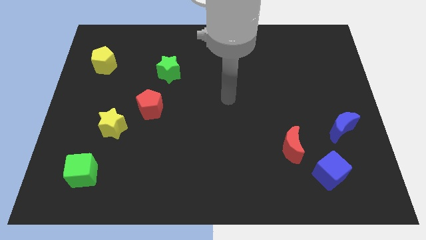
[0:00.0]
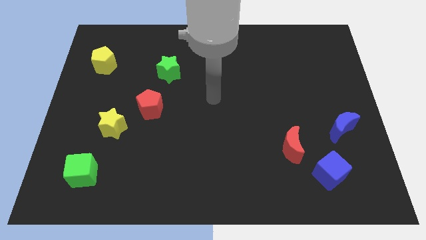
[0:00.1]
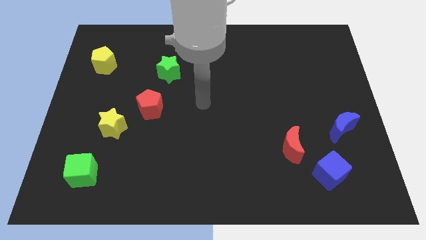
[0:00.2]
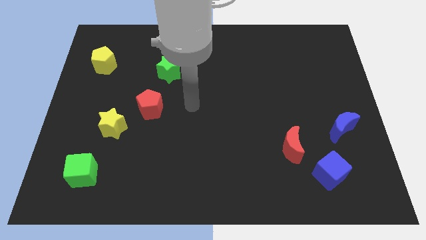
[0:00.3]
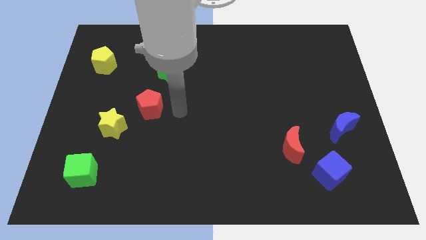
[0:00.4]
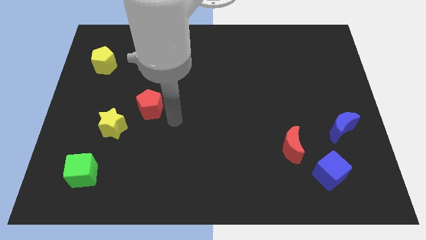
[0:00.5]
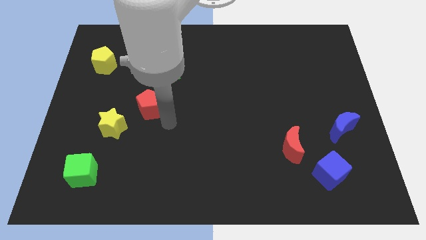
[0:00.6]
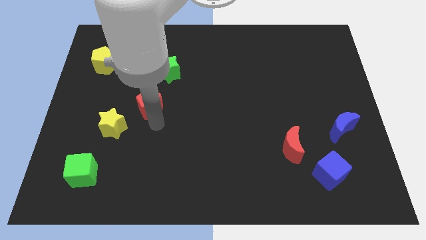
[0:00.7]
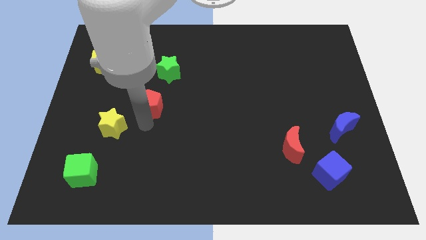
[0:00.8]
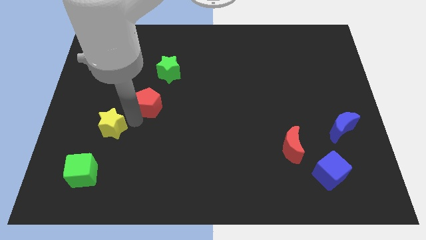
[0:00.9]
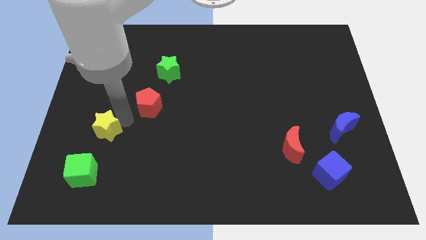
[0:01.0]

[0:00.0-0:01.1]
separate the red pentagon from the yellow star

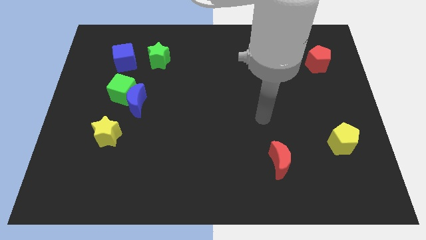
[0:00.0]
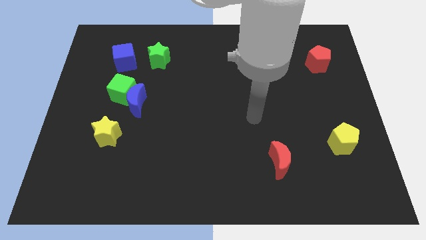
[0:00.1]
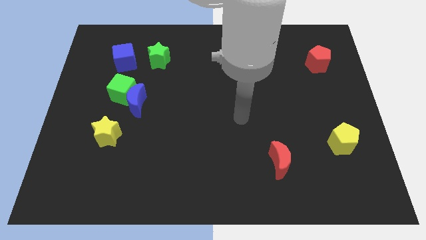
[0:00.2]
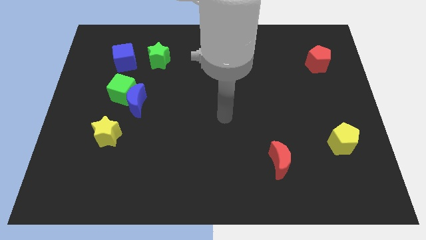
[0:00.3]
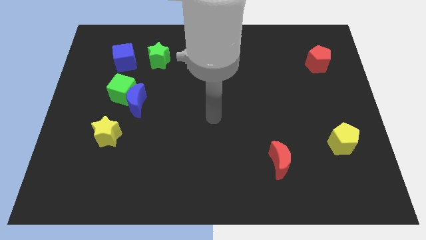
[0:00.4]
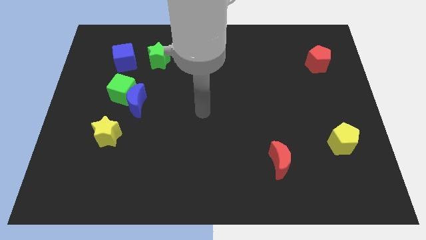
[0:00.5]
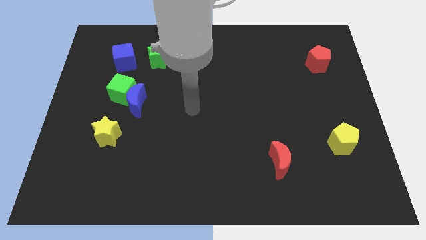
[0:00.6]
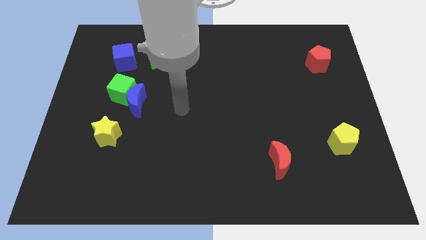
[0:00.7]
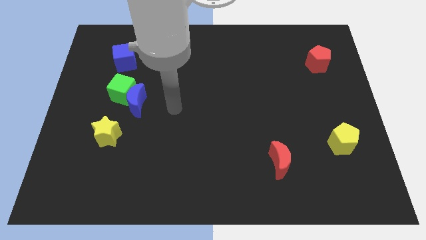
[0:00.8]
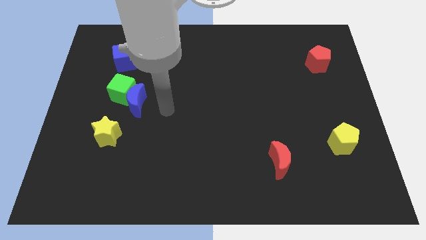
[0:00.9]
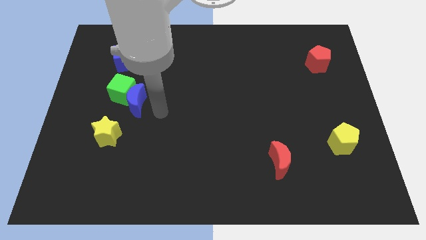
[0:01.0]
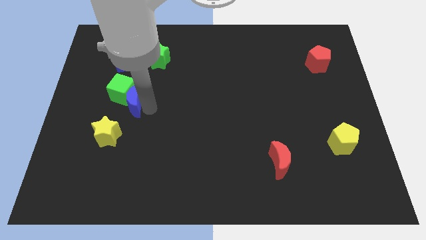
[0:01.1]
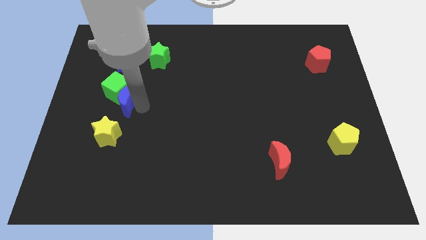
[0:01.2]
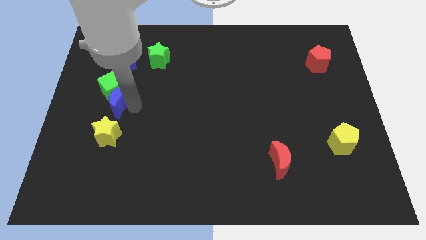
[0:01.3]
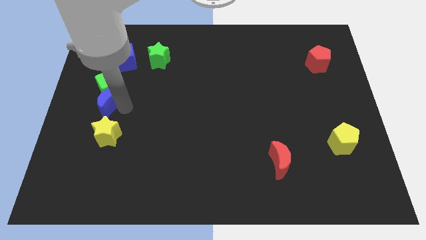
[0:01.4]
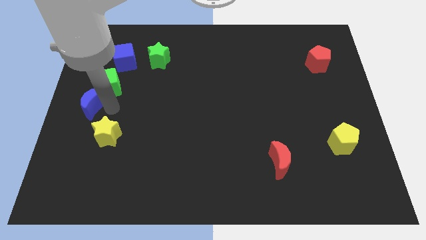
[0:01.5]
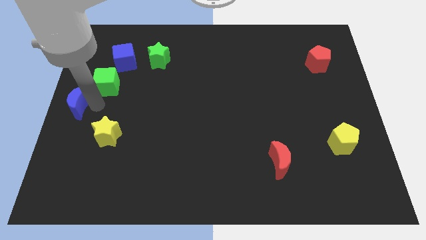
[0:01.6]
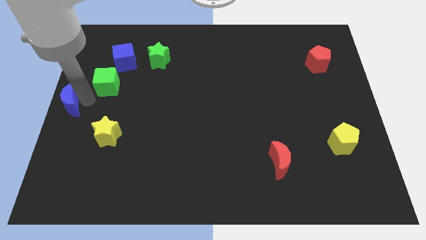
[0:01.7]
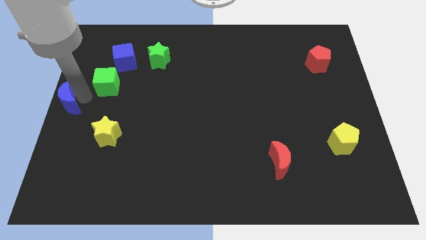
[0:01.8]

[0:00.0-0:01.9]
pull the green cube apart from the blue moon

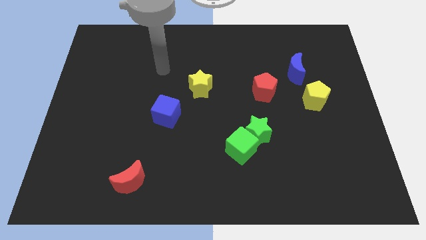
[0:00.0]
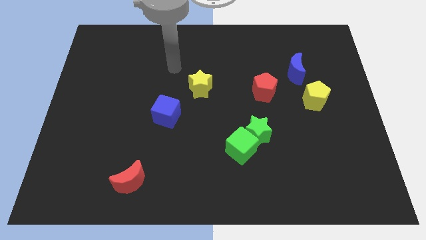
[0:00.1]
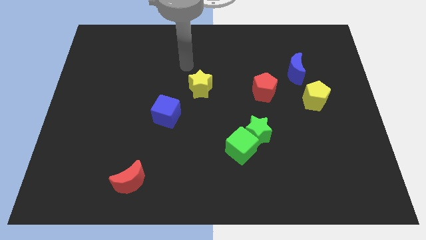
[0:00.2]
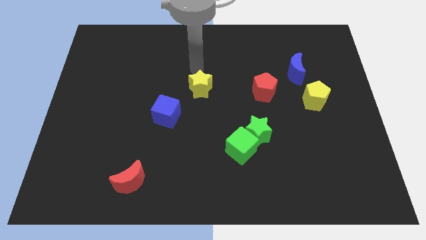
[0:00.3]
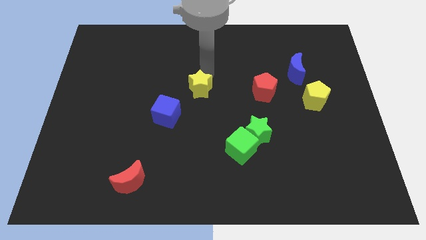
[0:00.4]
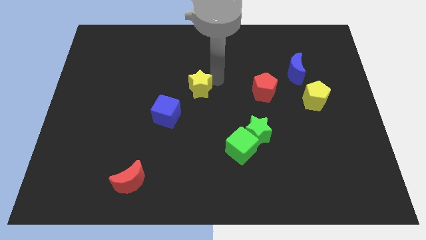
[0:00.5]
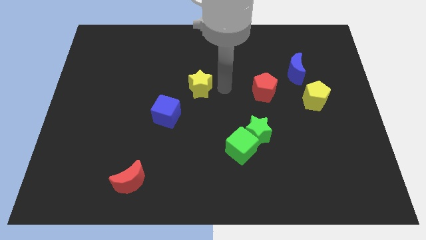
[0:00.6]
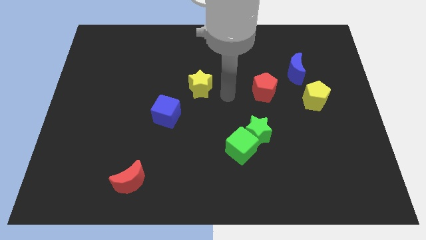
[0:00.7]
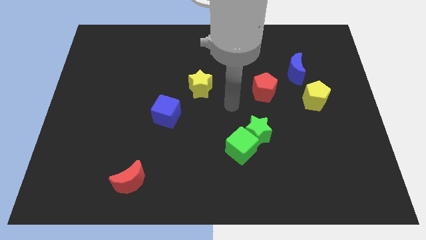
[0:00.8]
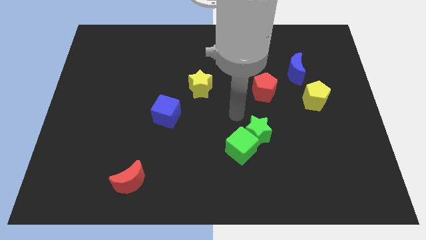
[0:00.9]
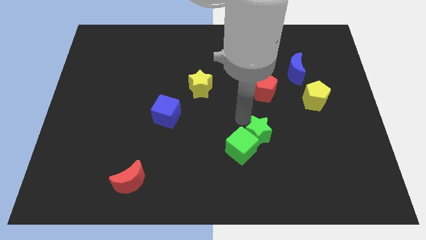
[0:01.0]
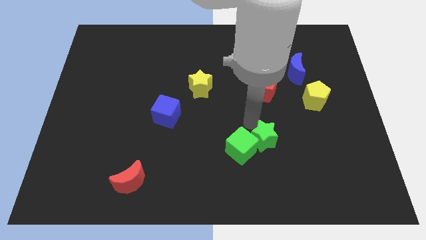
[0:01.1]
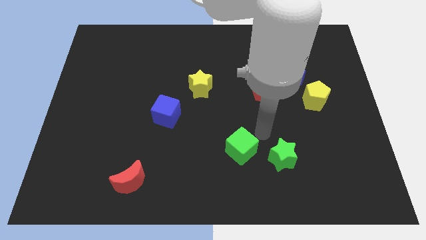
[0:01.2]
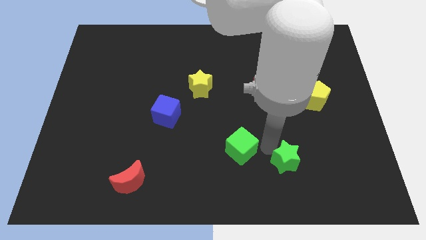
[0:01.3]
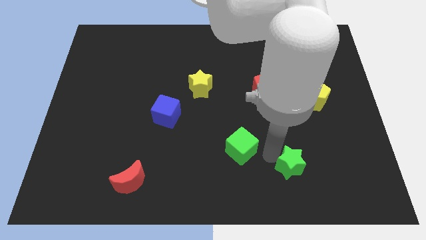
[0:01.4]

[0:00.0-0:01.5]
separate the green cube from the green star

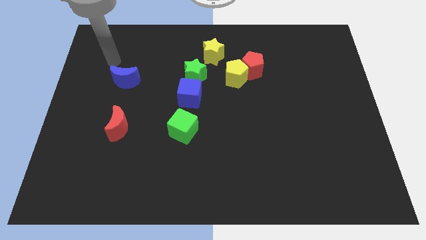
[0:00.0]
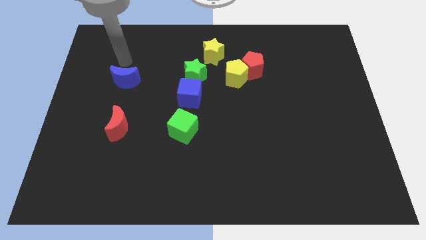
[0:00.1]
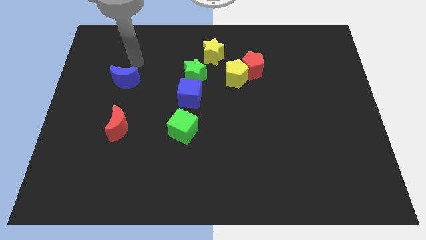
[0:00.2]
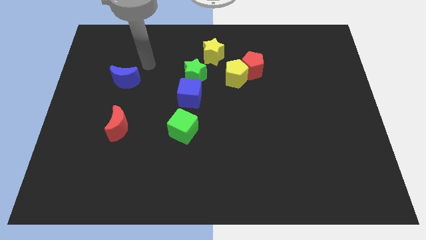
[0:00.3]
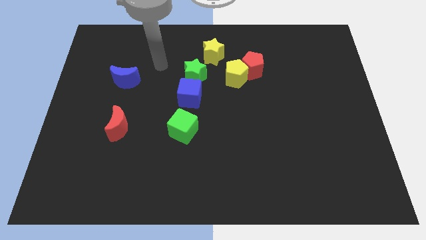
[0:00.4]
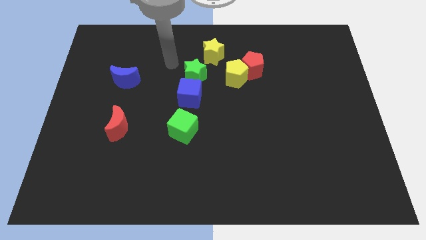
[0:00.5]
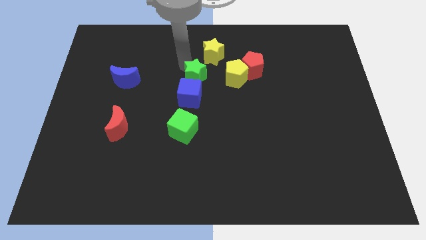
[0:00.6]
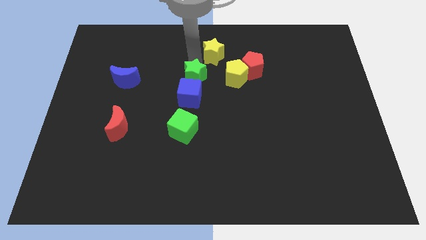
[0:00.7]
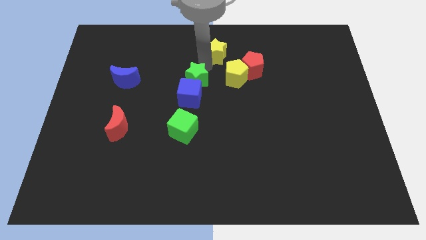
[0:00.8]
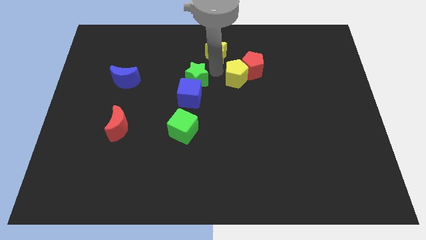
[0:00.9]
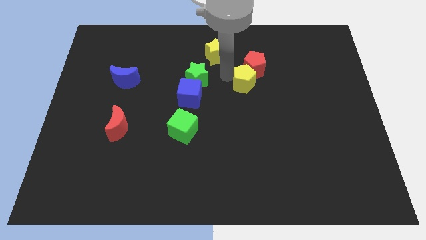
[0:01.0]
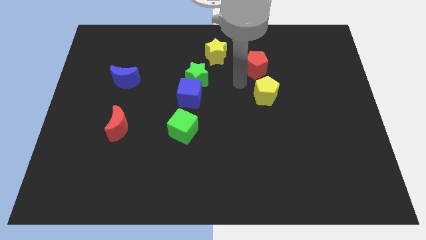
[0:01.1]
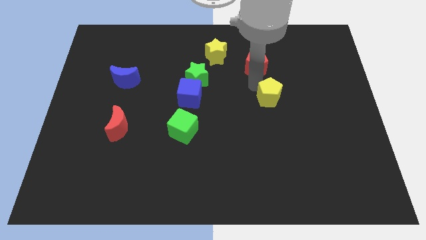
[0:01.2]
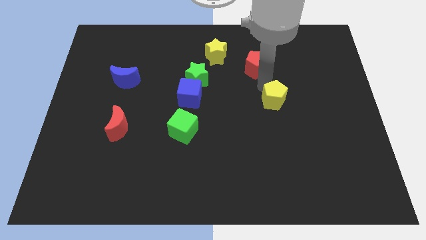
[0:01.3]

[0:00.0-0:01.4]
separate the red pentagon from the yellow pentagon

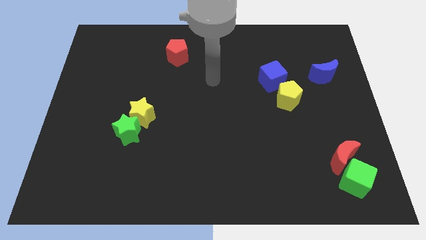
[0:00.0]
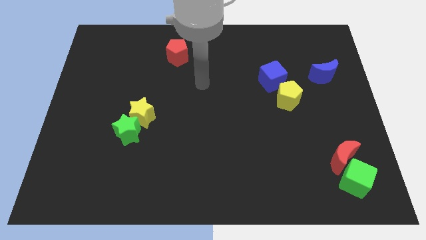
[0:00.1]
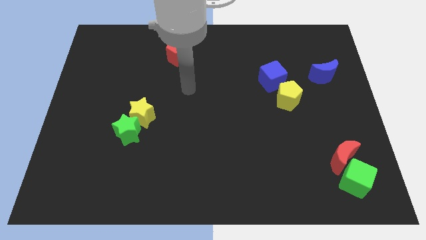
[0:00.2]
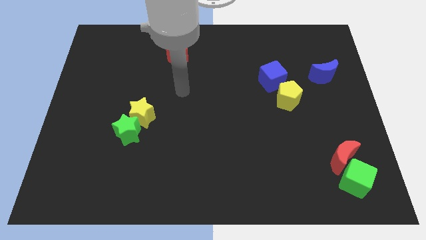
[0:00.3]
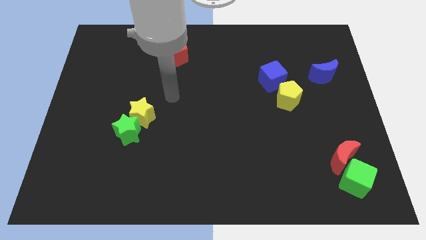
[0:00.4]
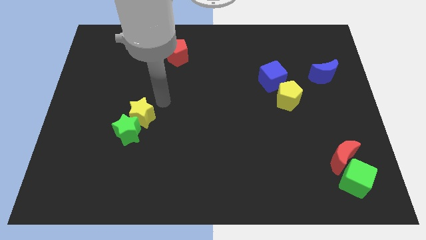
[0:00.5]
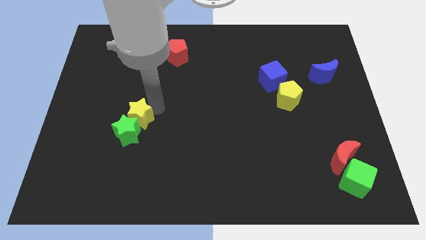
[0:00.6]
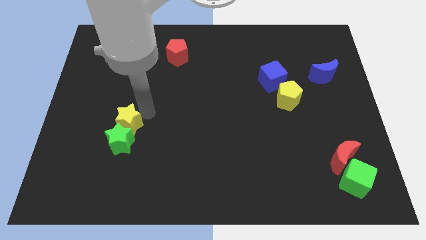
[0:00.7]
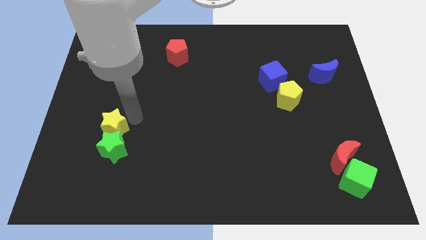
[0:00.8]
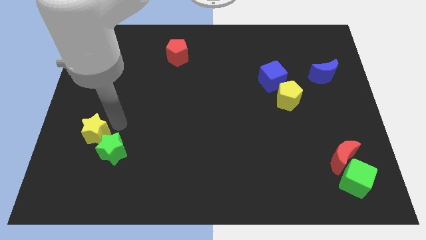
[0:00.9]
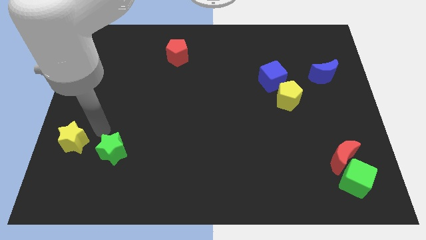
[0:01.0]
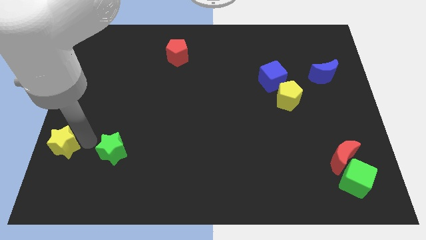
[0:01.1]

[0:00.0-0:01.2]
move the green star away from the yellow star

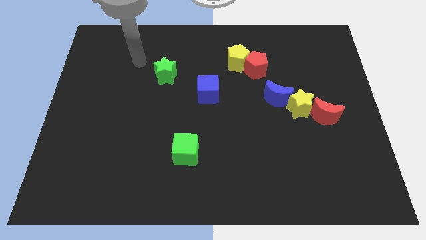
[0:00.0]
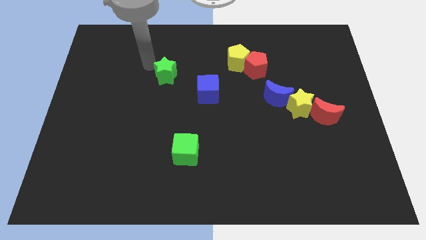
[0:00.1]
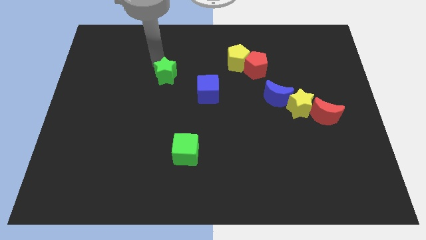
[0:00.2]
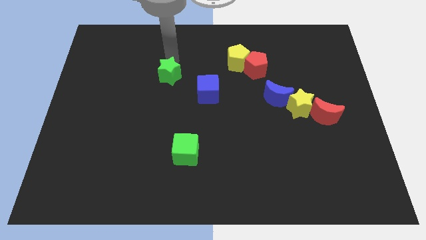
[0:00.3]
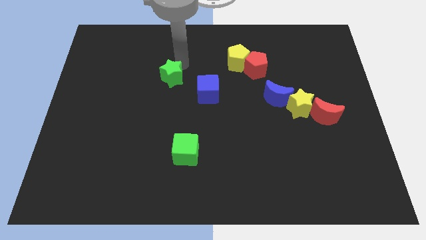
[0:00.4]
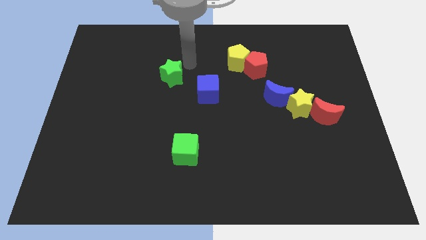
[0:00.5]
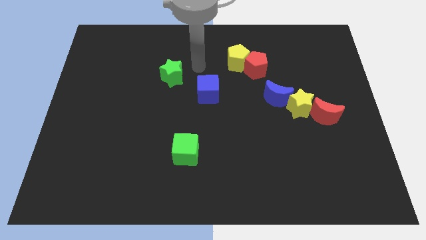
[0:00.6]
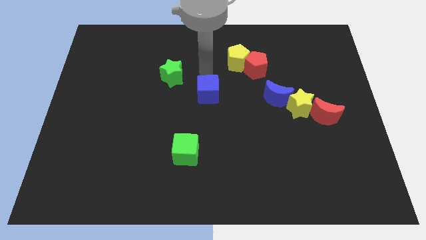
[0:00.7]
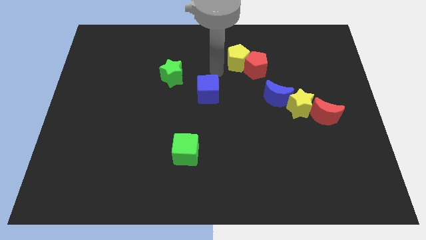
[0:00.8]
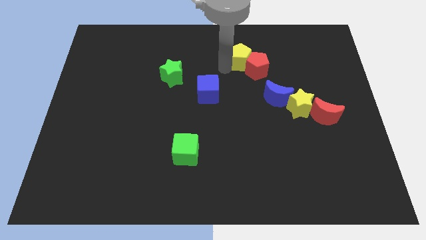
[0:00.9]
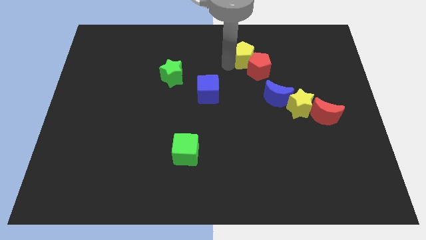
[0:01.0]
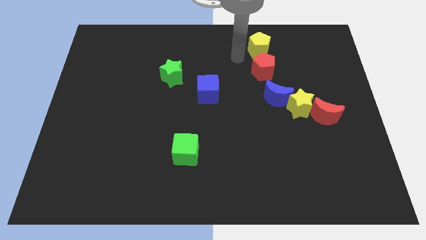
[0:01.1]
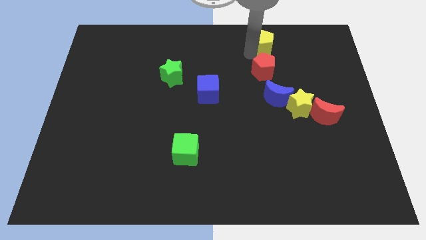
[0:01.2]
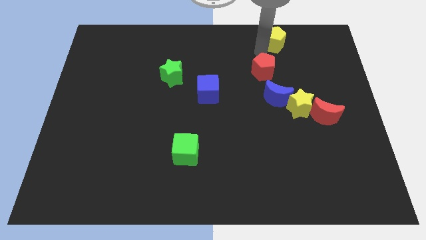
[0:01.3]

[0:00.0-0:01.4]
pull the red pentagon apart from the yellow pentagon

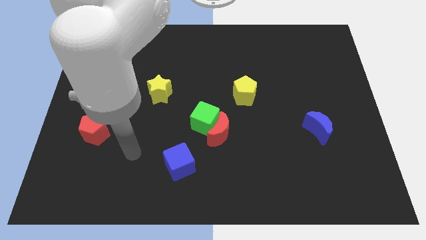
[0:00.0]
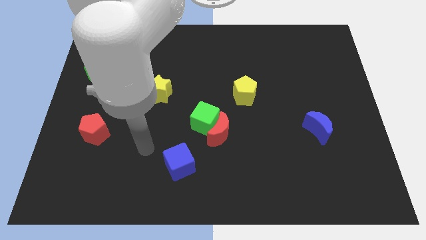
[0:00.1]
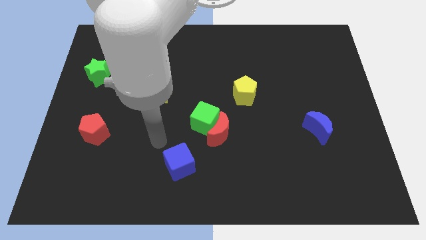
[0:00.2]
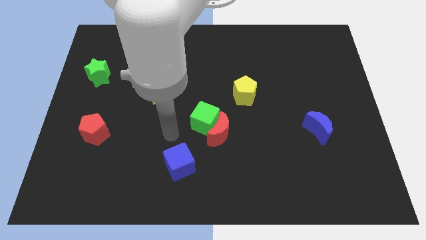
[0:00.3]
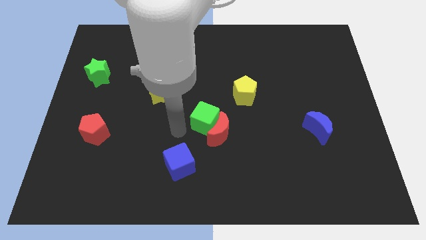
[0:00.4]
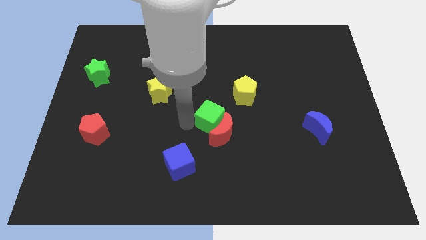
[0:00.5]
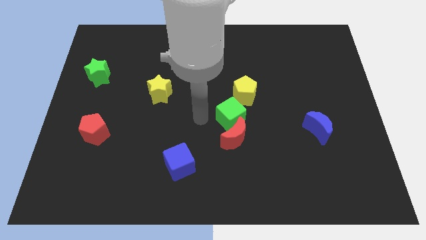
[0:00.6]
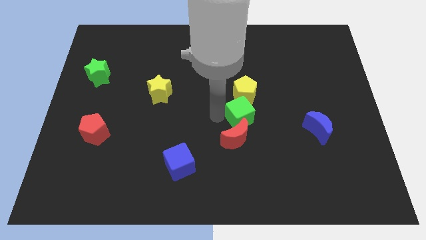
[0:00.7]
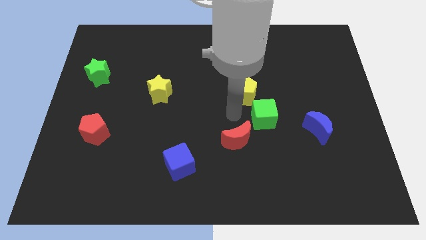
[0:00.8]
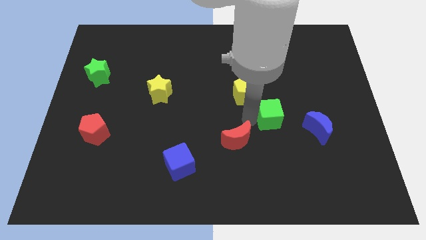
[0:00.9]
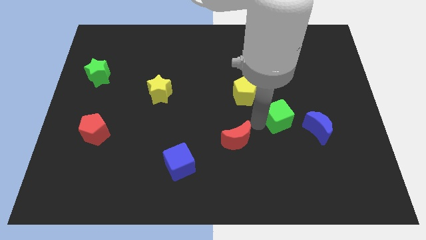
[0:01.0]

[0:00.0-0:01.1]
separate the red moon from the green cube
